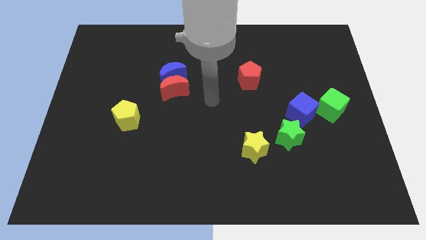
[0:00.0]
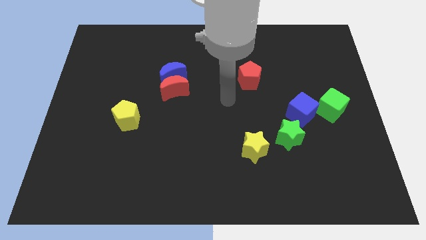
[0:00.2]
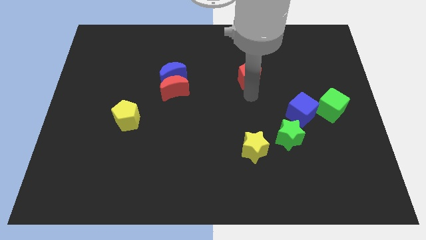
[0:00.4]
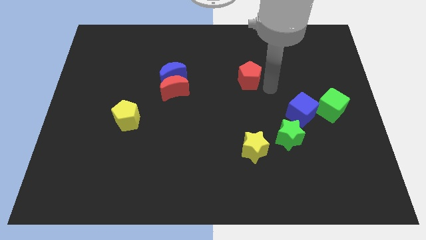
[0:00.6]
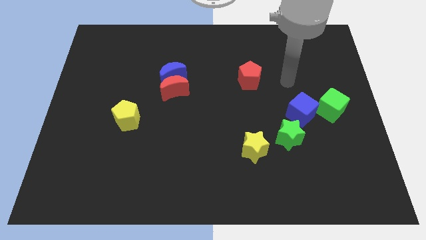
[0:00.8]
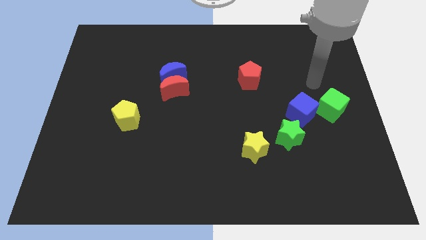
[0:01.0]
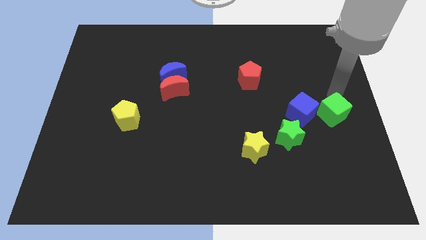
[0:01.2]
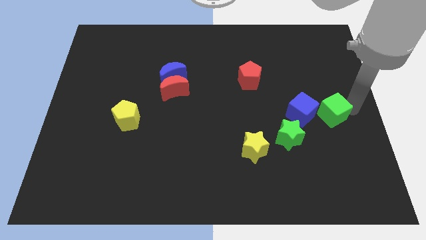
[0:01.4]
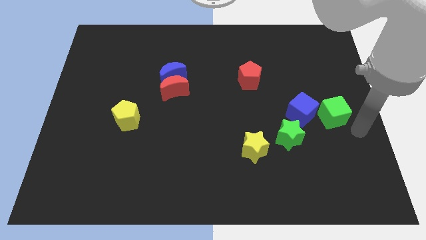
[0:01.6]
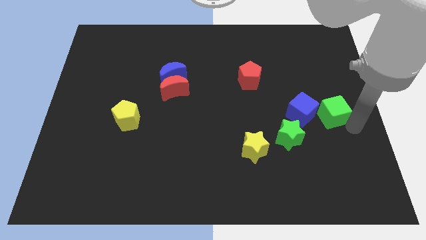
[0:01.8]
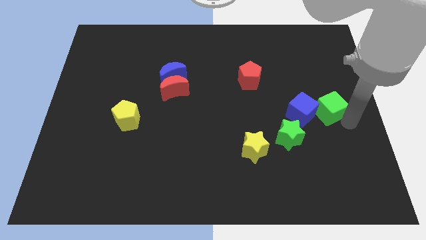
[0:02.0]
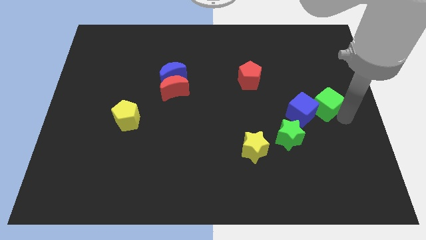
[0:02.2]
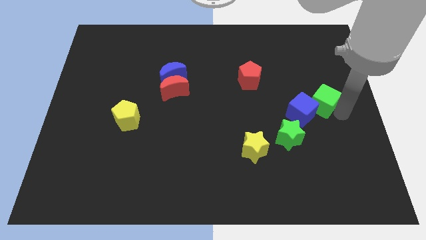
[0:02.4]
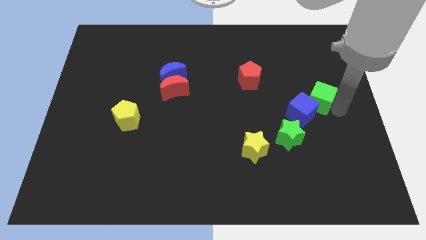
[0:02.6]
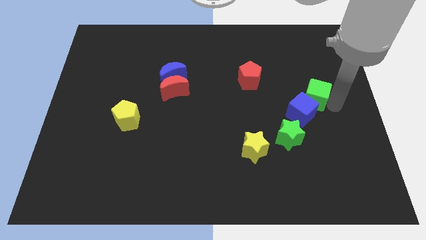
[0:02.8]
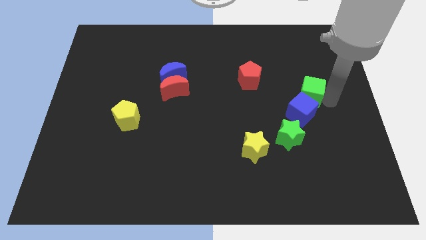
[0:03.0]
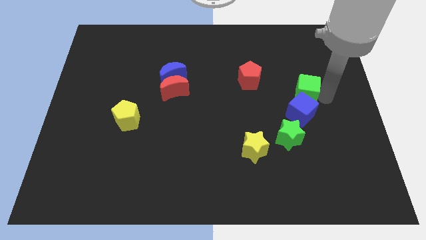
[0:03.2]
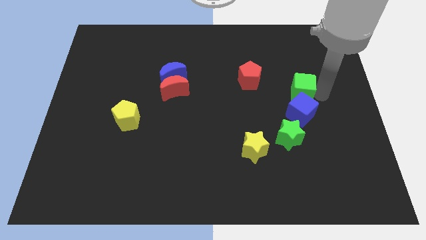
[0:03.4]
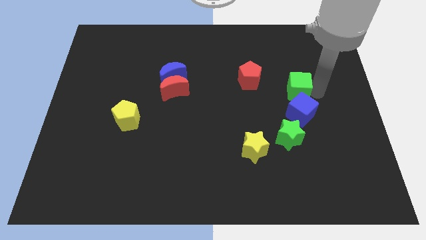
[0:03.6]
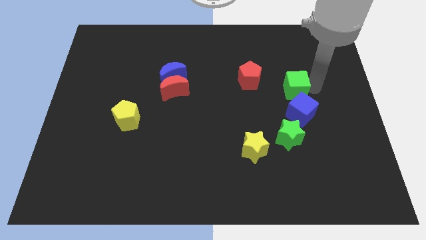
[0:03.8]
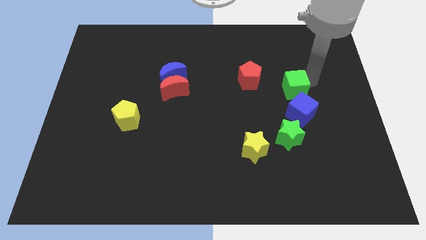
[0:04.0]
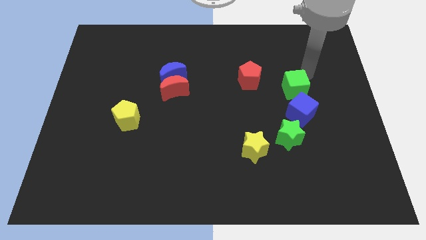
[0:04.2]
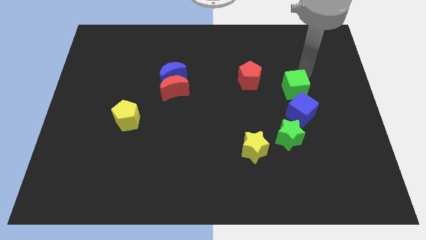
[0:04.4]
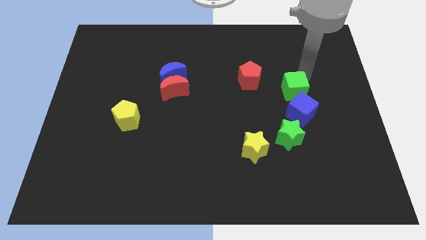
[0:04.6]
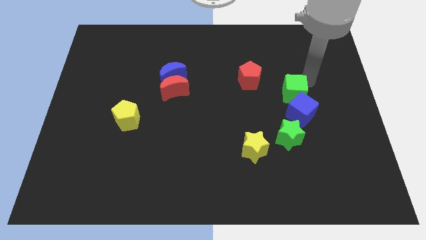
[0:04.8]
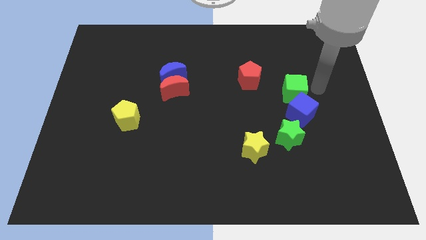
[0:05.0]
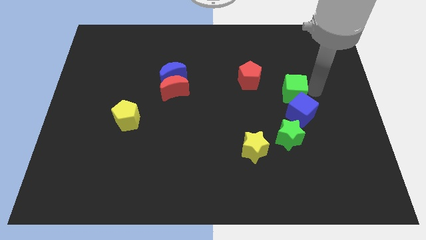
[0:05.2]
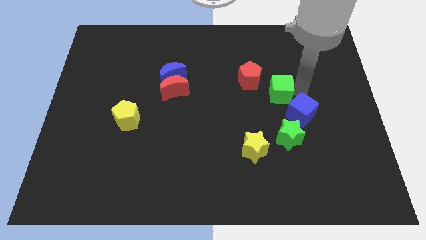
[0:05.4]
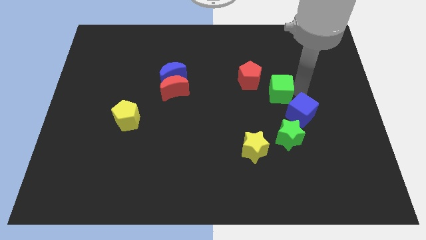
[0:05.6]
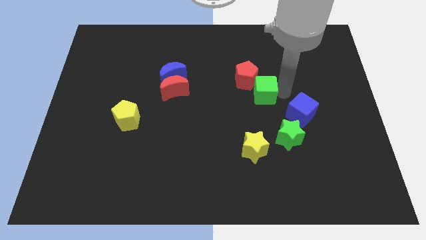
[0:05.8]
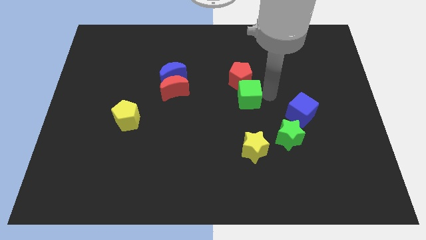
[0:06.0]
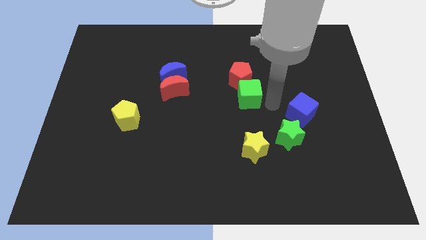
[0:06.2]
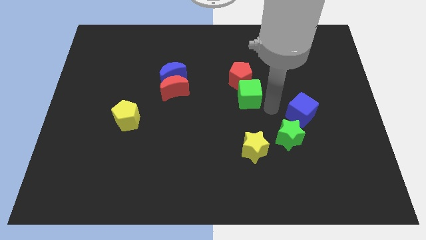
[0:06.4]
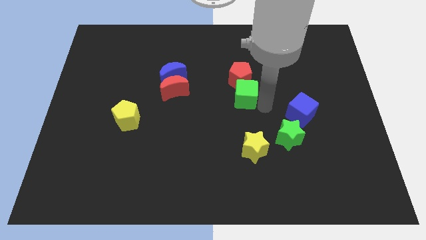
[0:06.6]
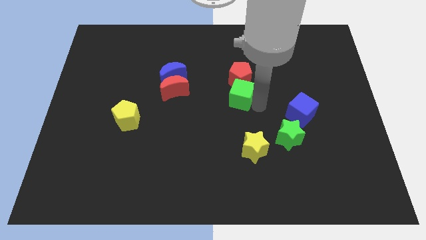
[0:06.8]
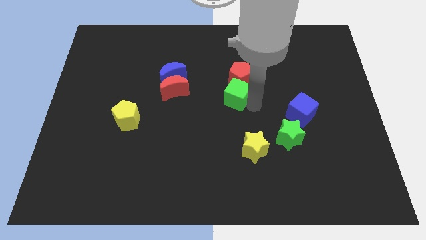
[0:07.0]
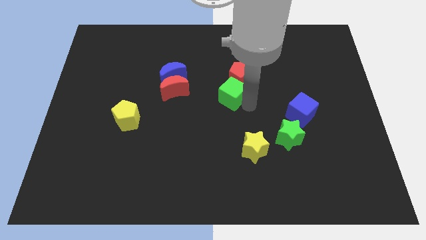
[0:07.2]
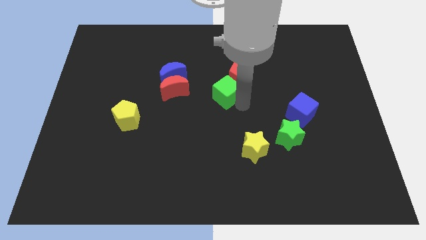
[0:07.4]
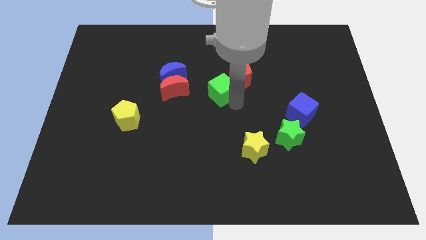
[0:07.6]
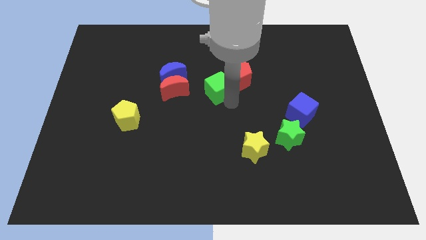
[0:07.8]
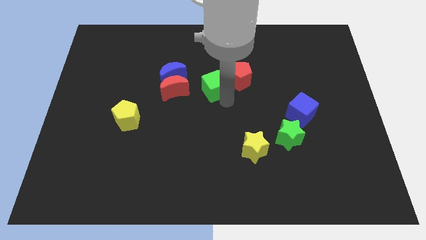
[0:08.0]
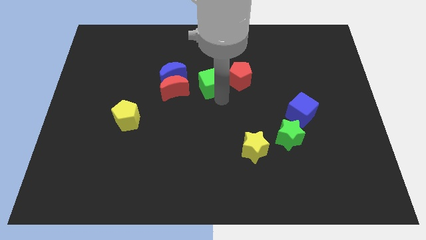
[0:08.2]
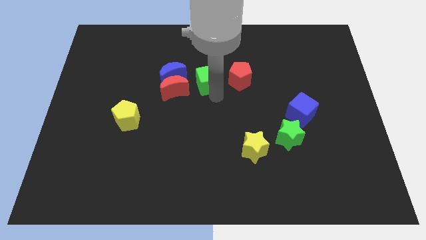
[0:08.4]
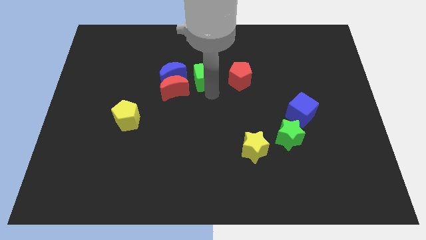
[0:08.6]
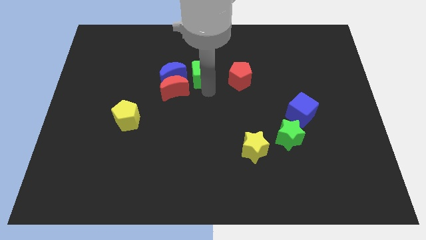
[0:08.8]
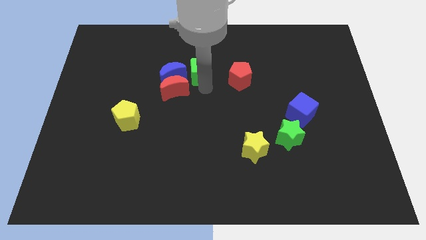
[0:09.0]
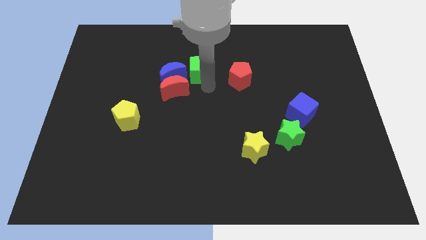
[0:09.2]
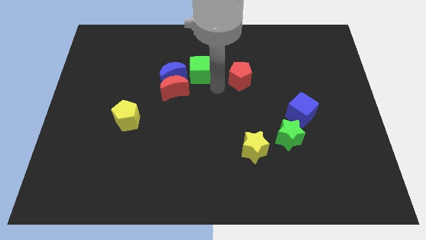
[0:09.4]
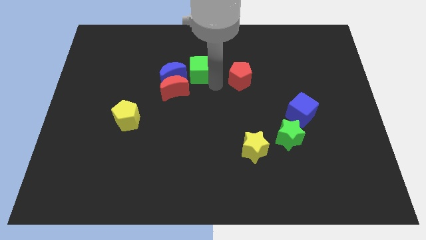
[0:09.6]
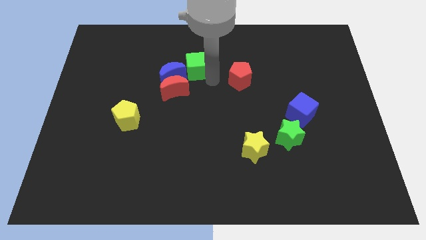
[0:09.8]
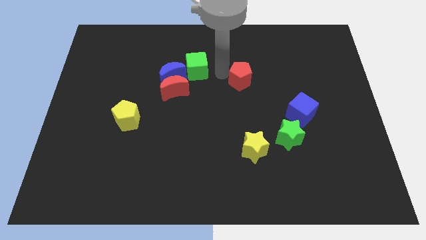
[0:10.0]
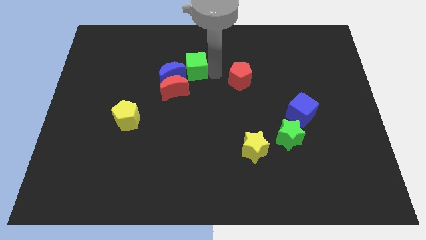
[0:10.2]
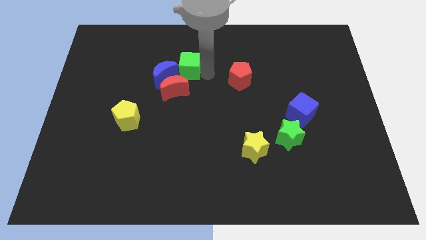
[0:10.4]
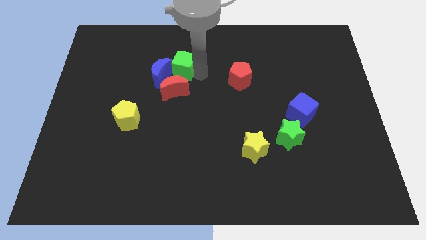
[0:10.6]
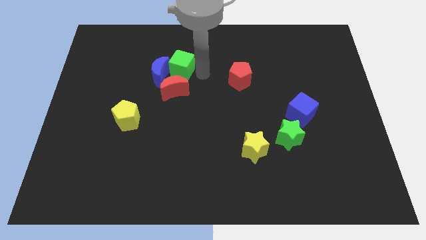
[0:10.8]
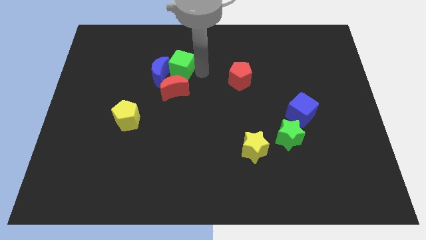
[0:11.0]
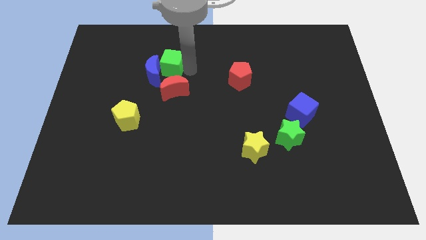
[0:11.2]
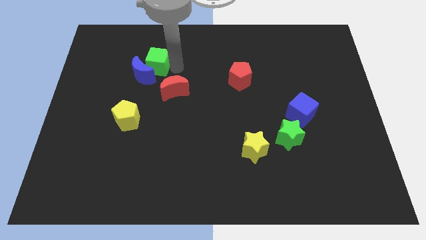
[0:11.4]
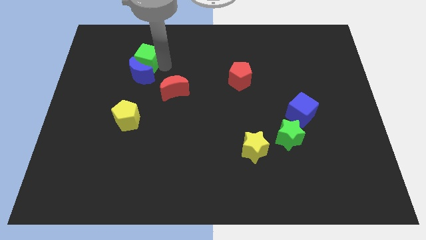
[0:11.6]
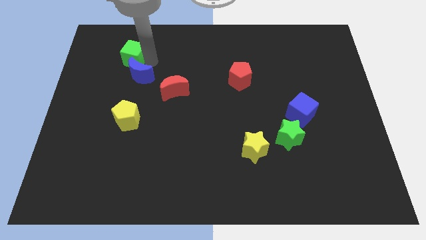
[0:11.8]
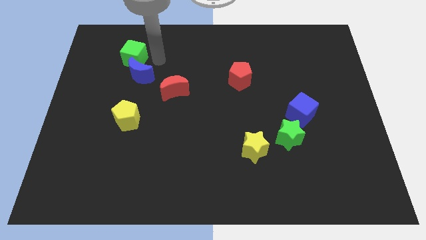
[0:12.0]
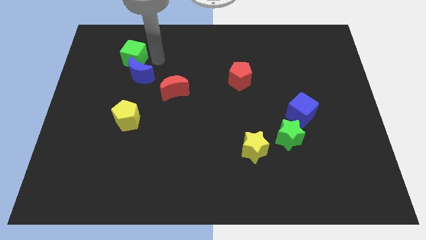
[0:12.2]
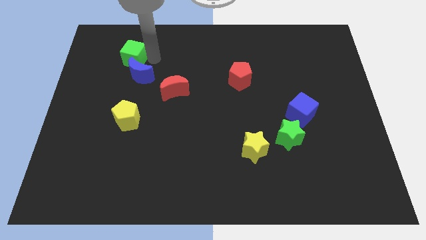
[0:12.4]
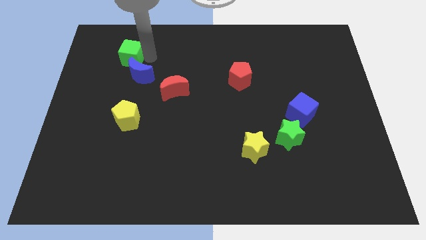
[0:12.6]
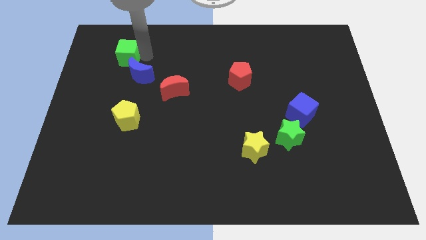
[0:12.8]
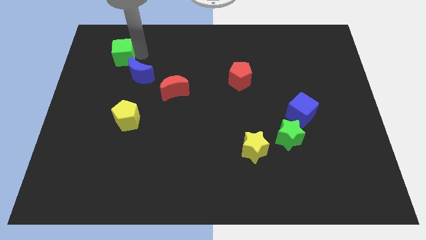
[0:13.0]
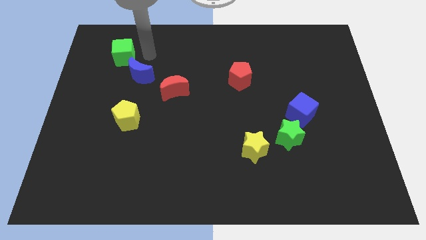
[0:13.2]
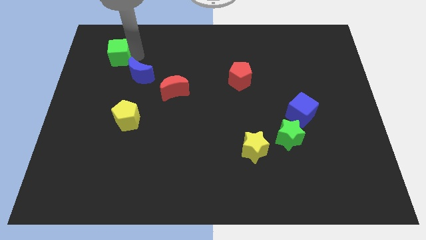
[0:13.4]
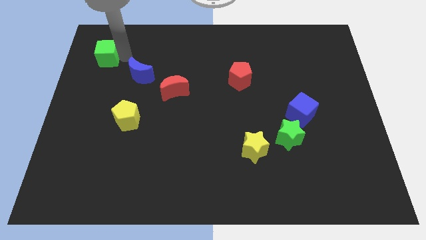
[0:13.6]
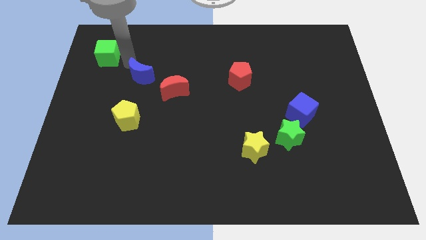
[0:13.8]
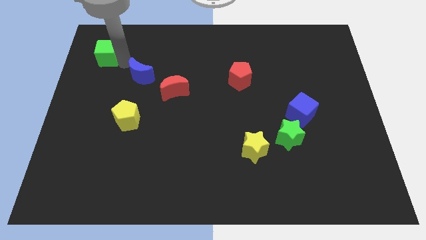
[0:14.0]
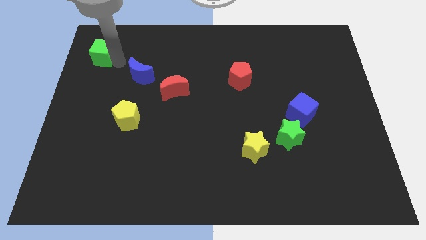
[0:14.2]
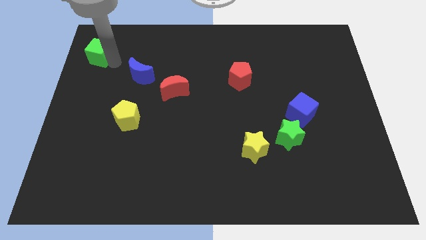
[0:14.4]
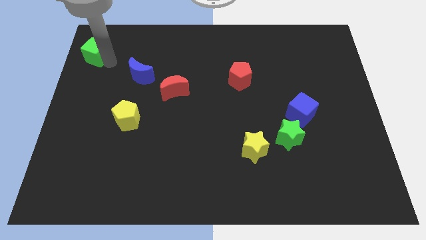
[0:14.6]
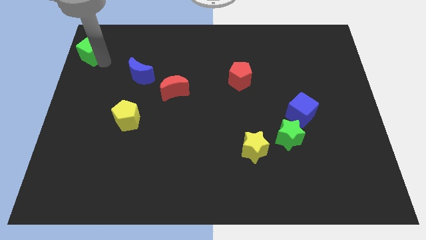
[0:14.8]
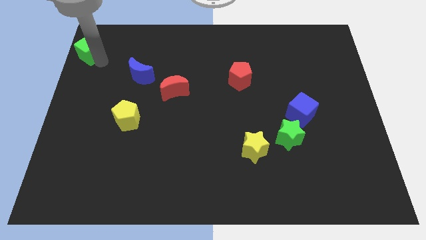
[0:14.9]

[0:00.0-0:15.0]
slide the green cube to the top left
